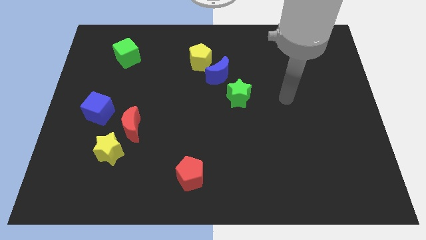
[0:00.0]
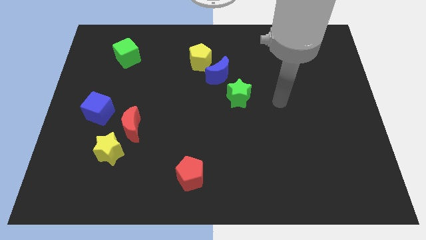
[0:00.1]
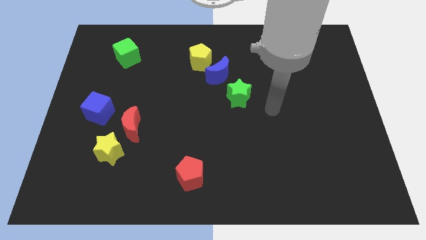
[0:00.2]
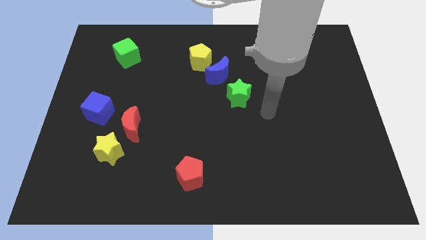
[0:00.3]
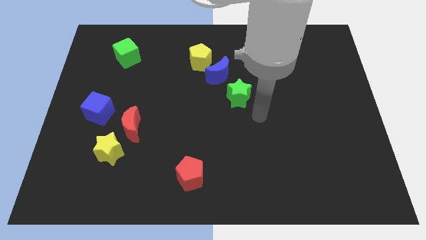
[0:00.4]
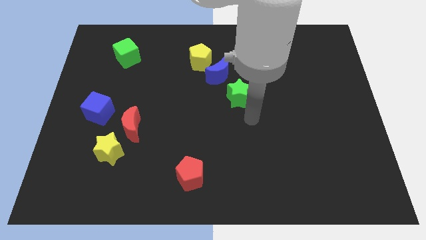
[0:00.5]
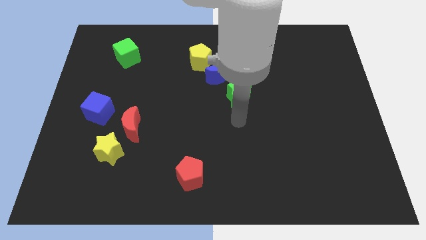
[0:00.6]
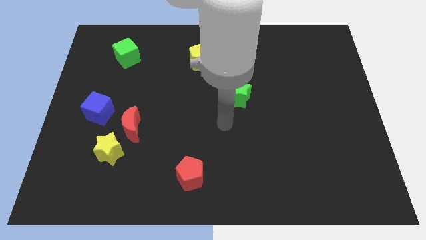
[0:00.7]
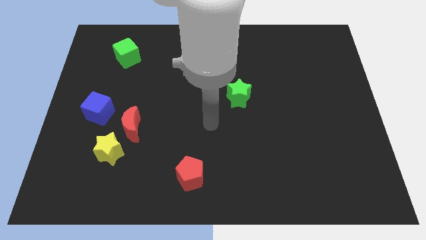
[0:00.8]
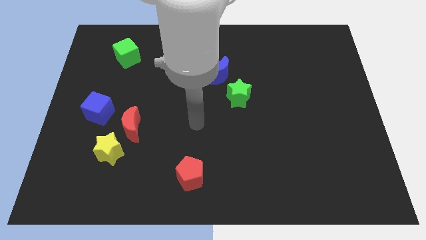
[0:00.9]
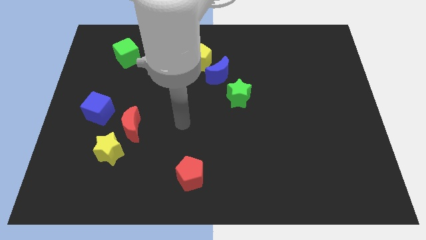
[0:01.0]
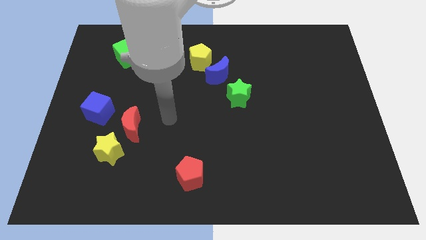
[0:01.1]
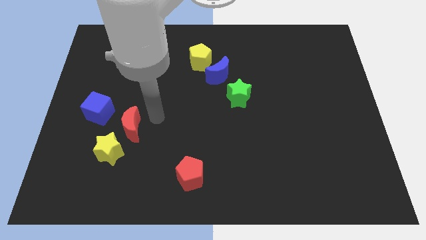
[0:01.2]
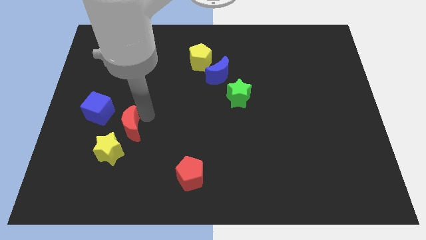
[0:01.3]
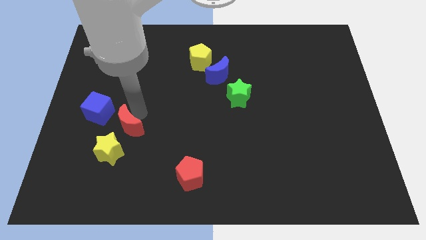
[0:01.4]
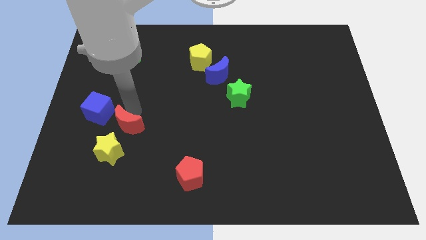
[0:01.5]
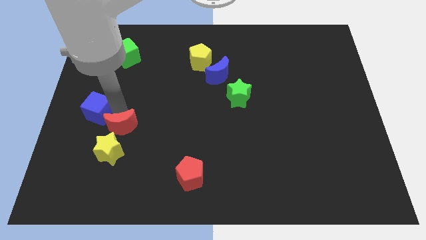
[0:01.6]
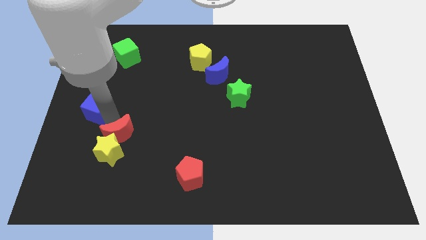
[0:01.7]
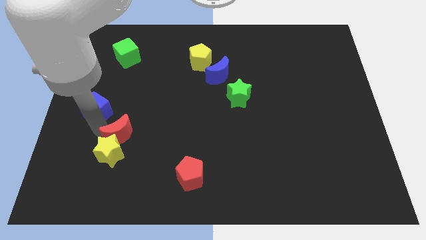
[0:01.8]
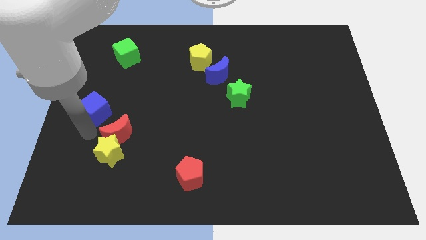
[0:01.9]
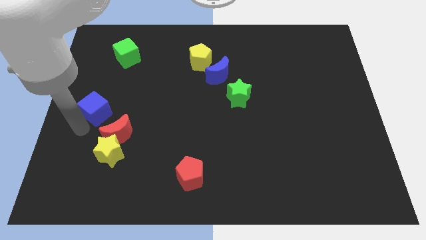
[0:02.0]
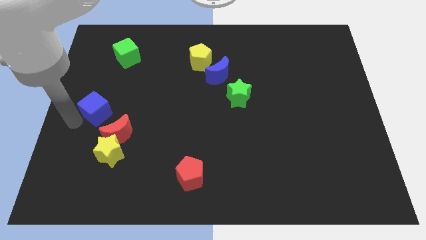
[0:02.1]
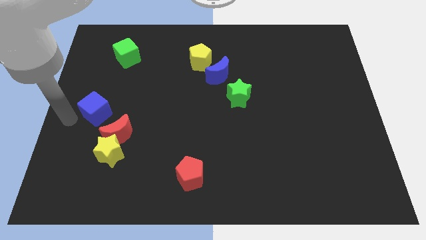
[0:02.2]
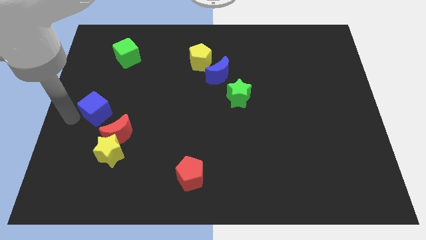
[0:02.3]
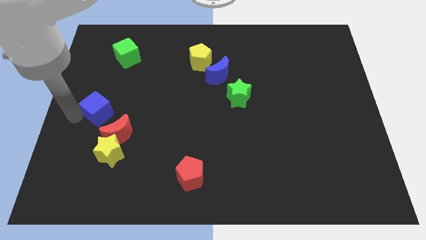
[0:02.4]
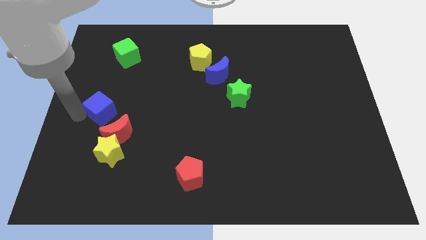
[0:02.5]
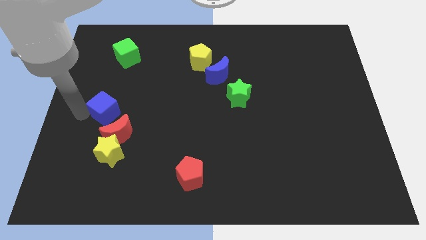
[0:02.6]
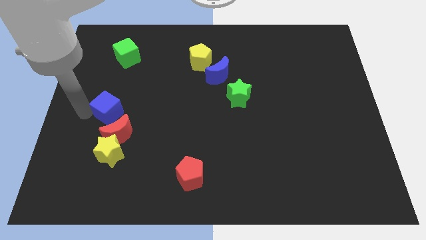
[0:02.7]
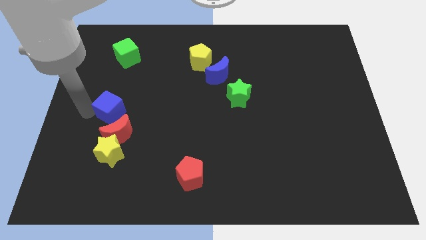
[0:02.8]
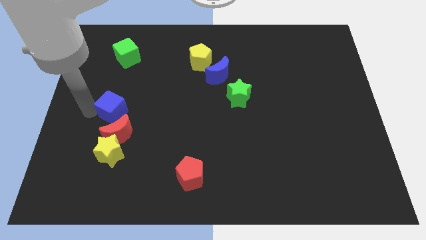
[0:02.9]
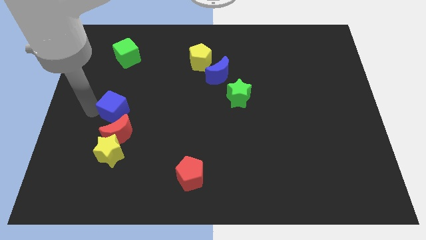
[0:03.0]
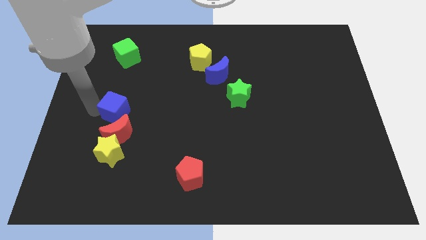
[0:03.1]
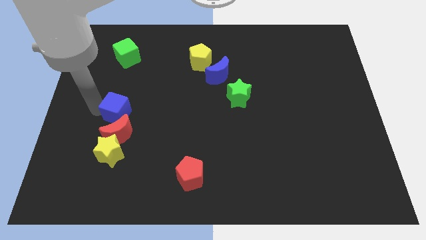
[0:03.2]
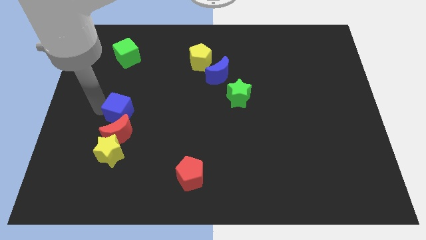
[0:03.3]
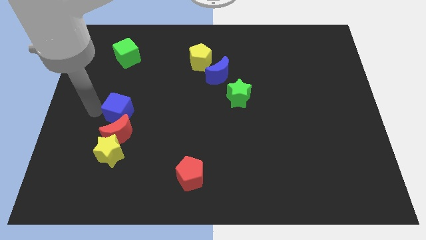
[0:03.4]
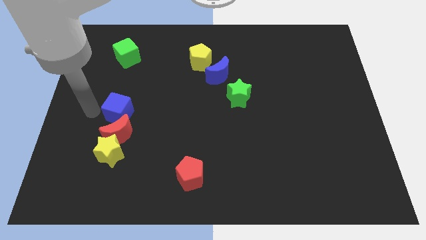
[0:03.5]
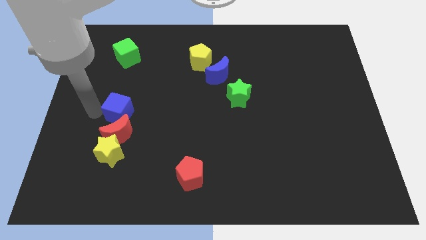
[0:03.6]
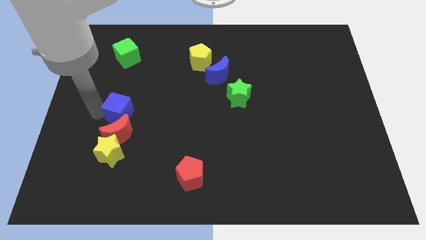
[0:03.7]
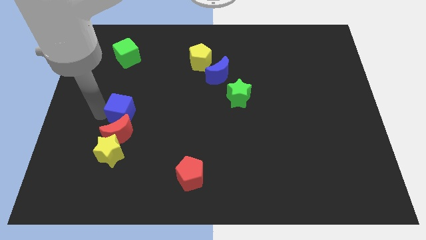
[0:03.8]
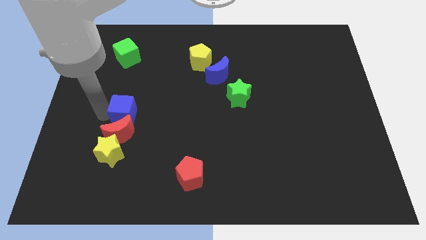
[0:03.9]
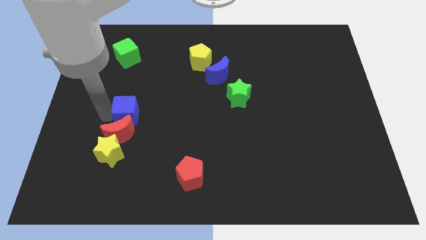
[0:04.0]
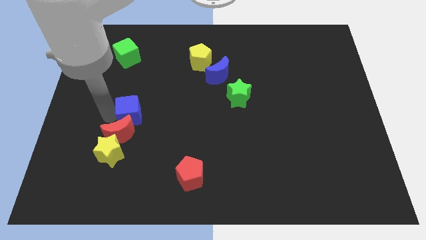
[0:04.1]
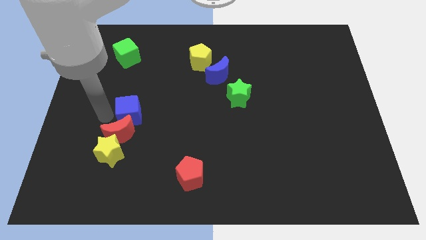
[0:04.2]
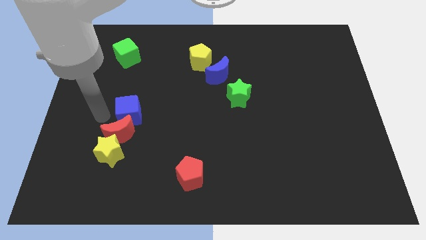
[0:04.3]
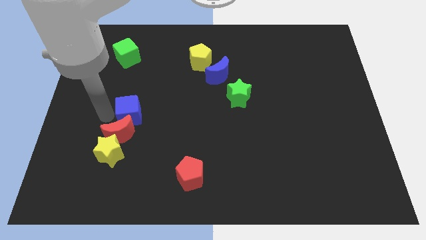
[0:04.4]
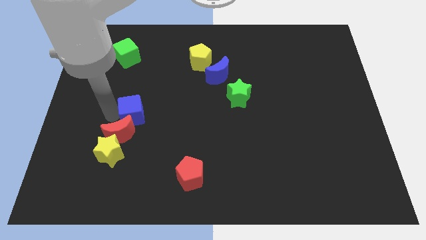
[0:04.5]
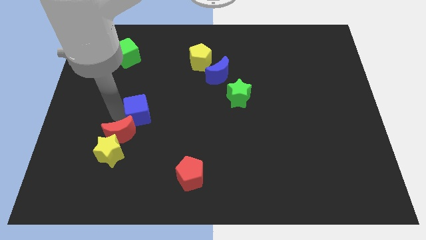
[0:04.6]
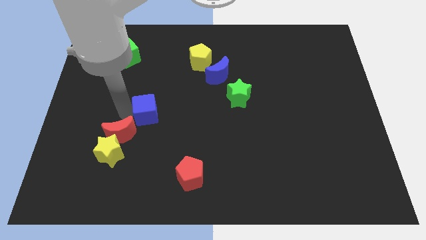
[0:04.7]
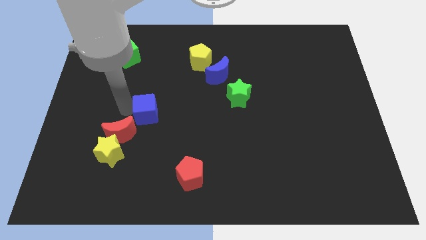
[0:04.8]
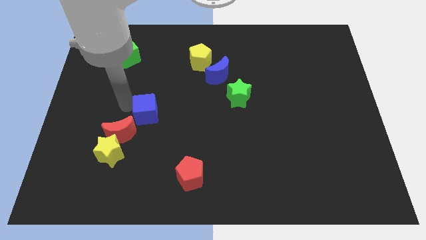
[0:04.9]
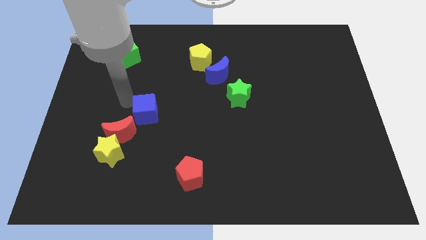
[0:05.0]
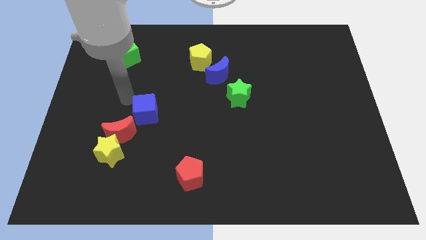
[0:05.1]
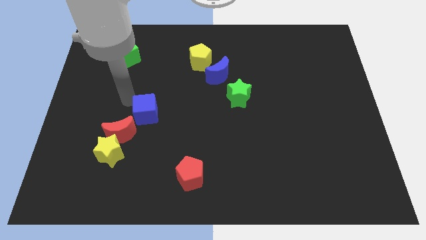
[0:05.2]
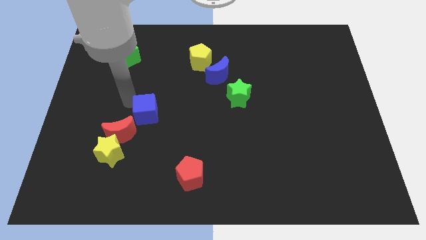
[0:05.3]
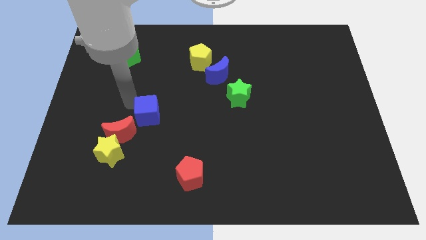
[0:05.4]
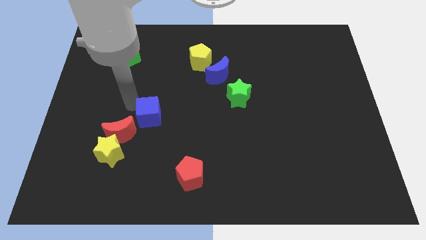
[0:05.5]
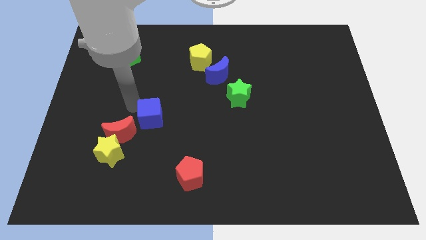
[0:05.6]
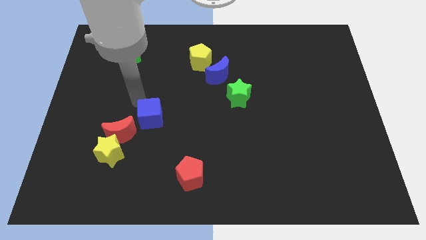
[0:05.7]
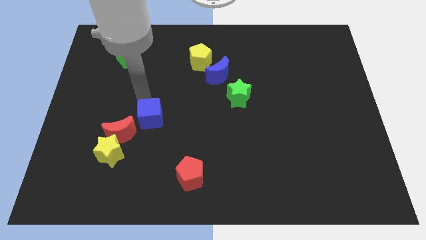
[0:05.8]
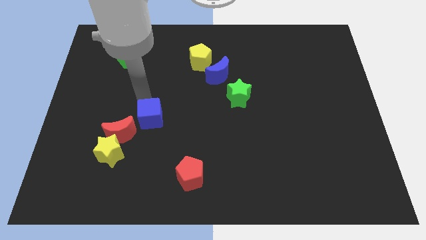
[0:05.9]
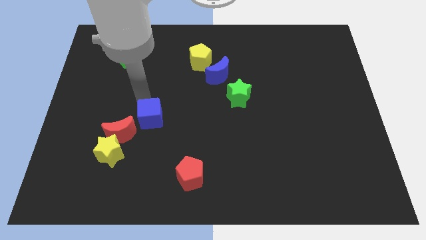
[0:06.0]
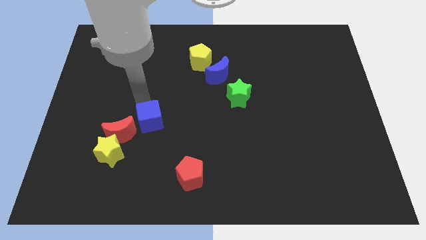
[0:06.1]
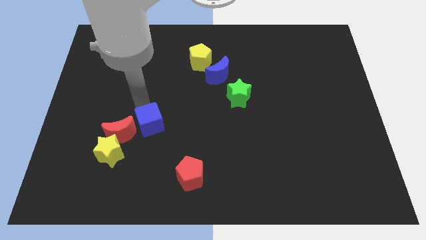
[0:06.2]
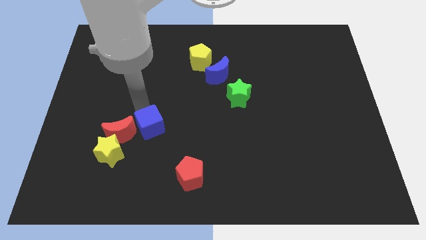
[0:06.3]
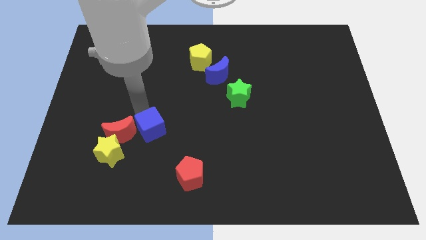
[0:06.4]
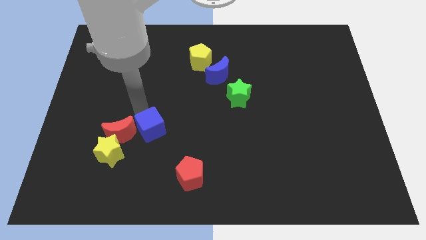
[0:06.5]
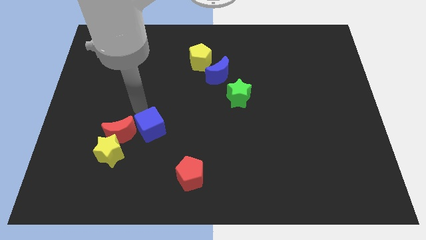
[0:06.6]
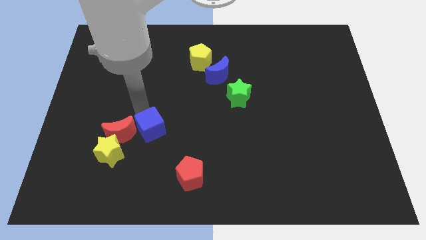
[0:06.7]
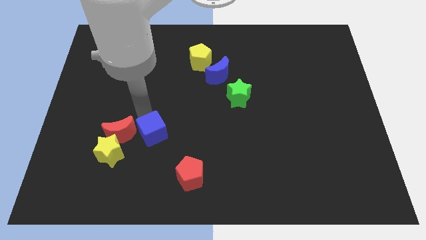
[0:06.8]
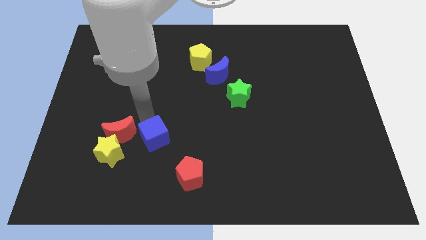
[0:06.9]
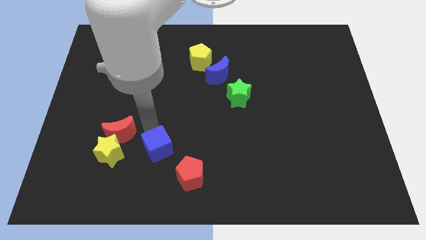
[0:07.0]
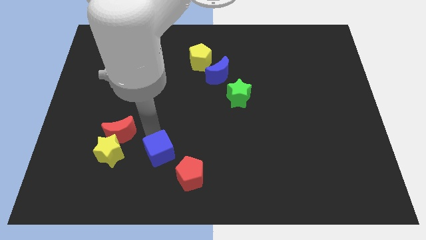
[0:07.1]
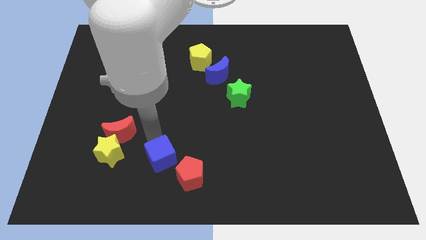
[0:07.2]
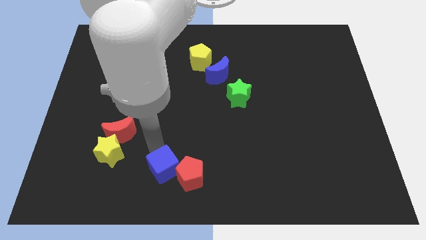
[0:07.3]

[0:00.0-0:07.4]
slide the blue cube close to the red pentagon
